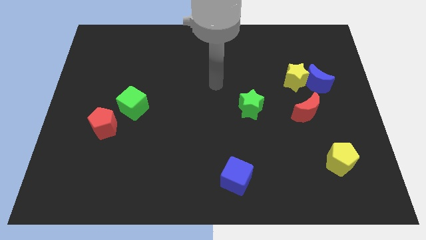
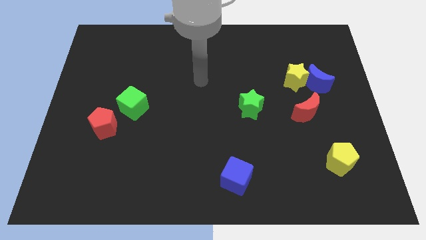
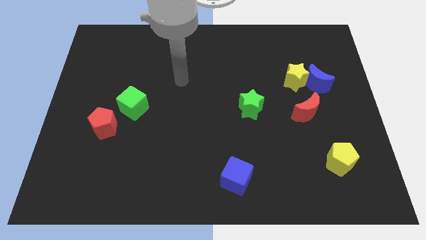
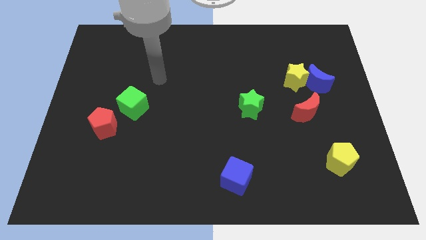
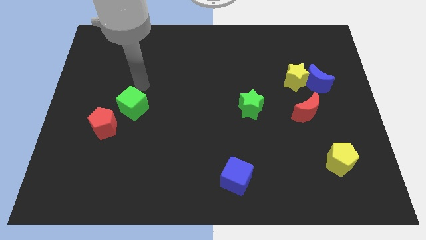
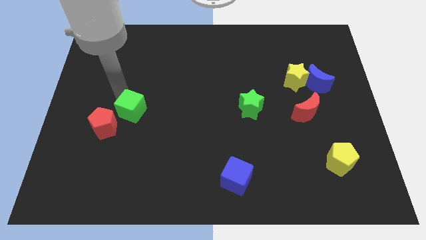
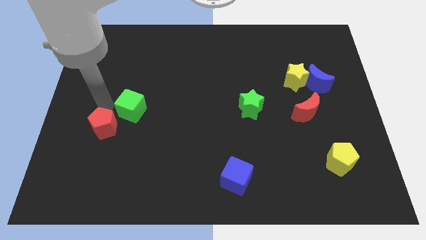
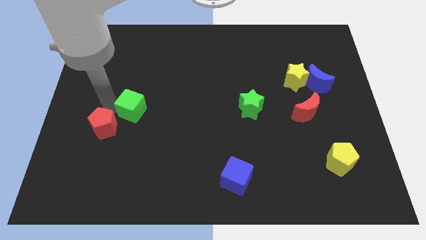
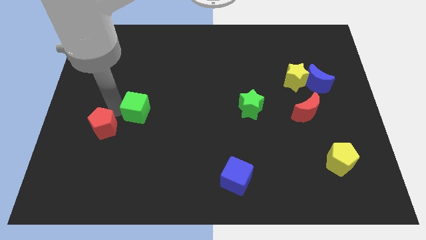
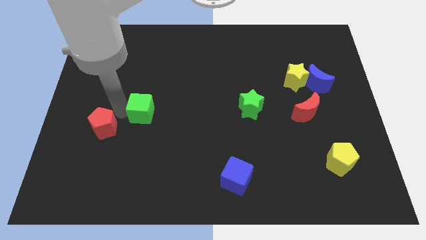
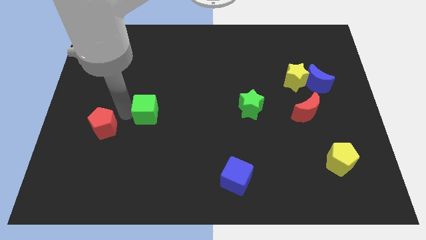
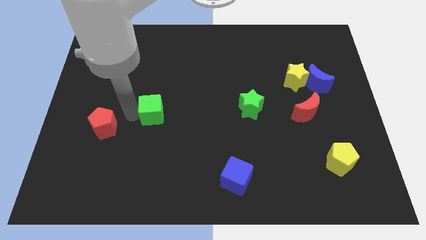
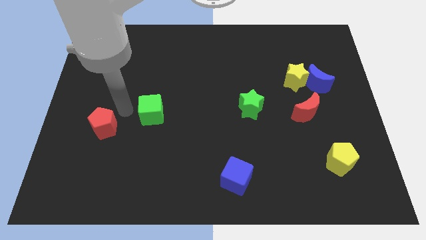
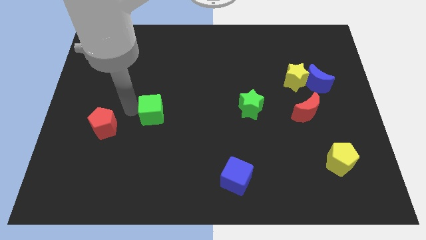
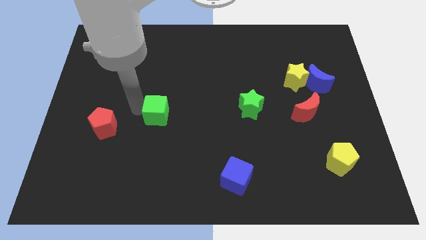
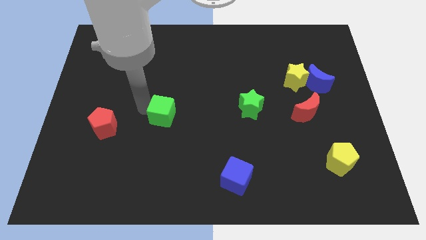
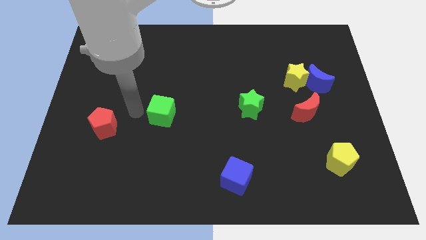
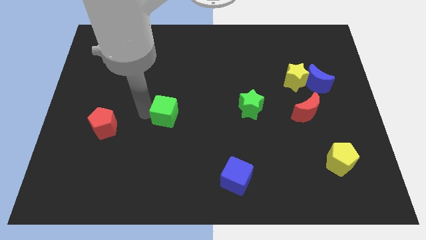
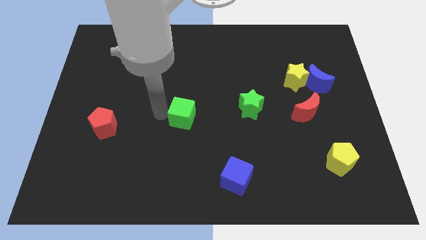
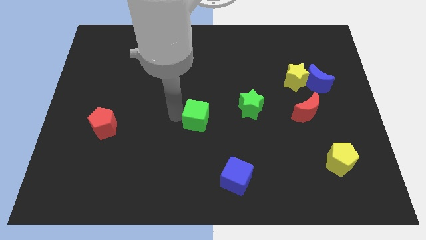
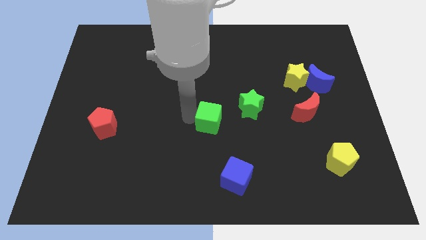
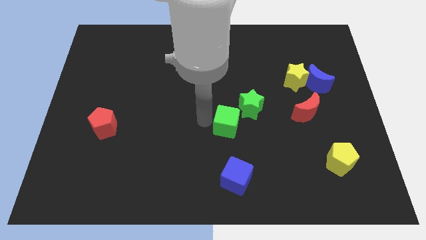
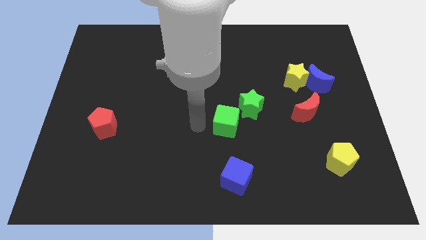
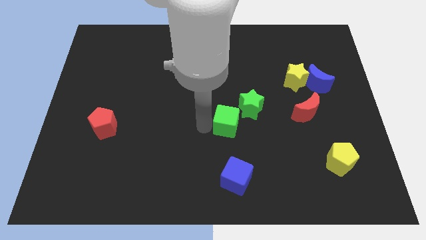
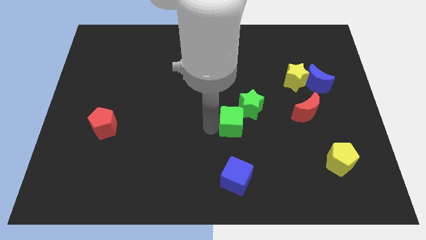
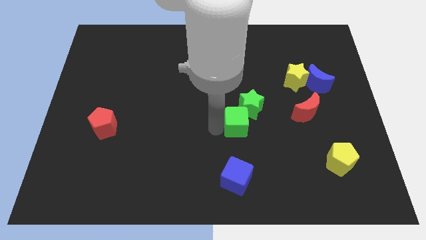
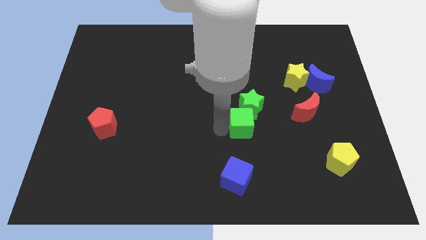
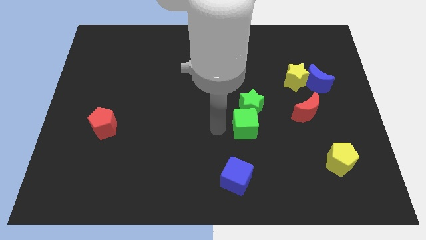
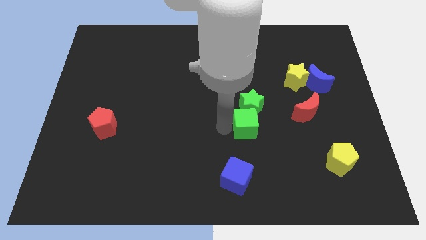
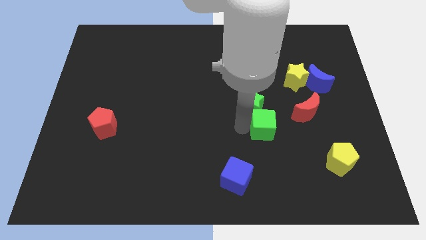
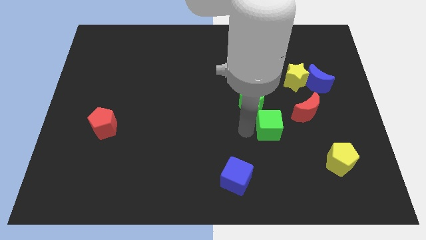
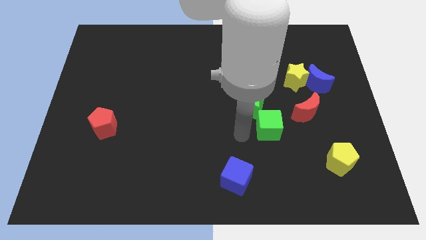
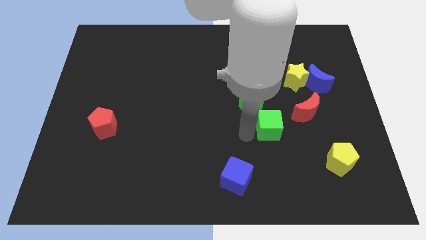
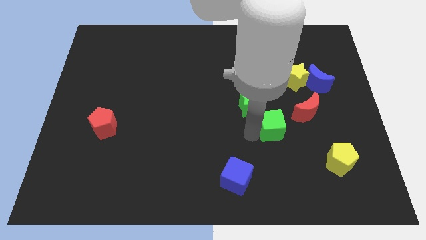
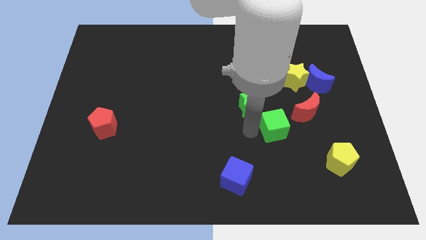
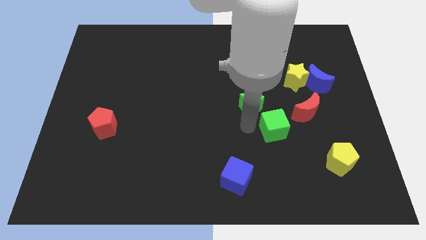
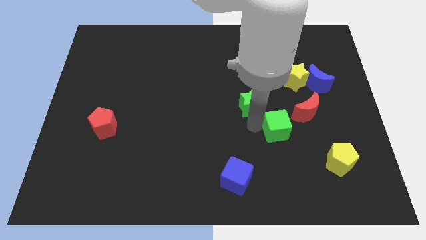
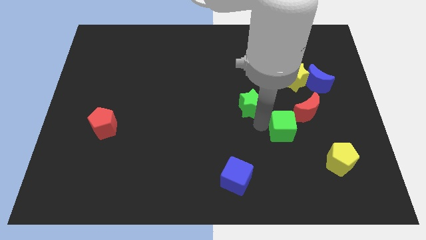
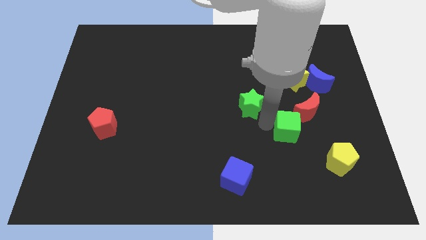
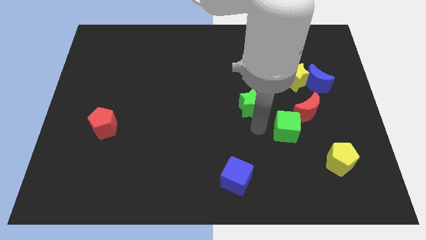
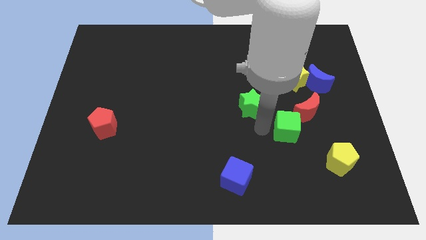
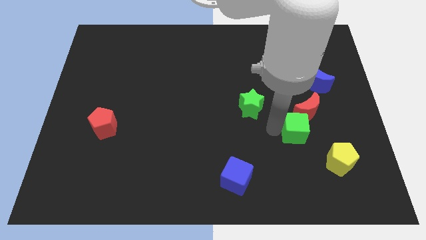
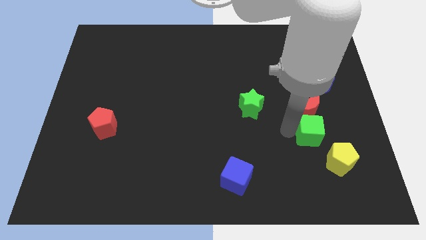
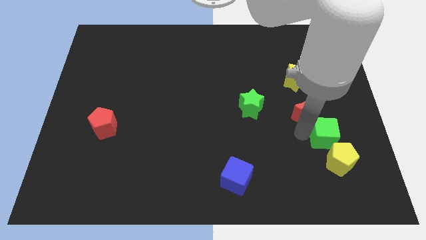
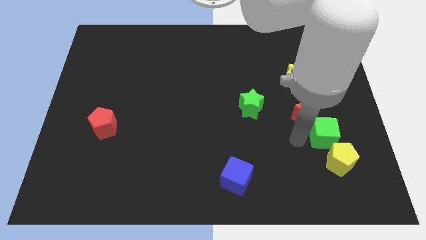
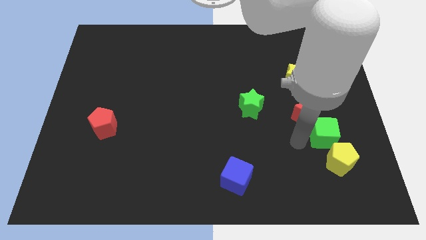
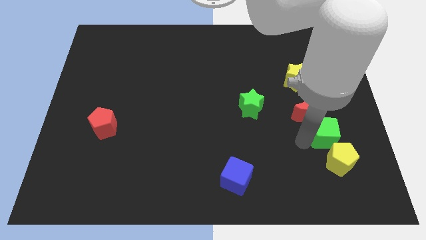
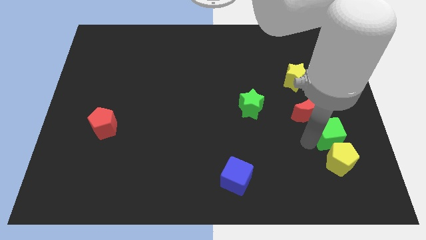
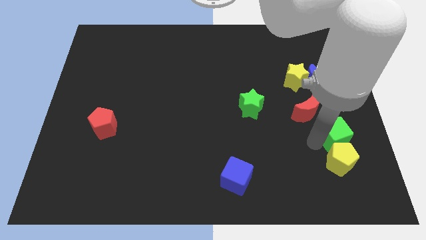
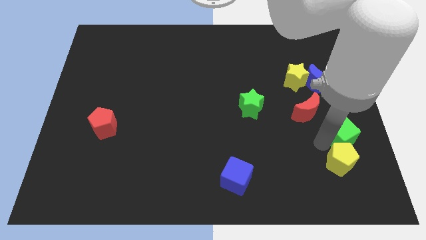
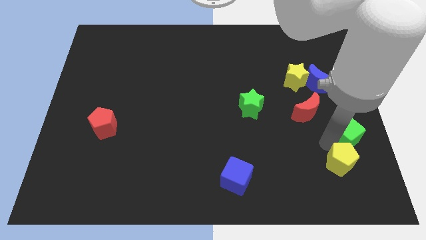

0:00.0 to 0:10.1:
push the green cube to the right side of the board

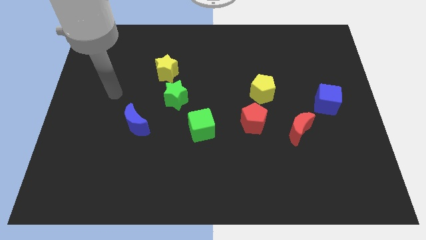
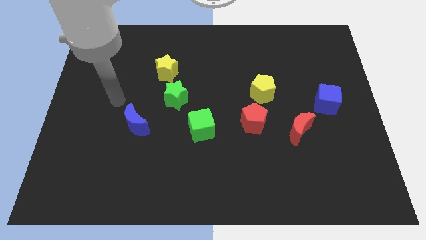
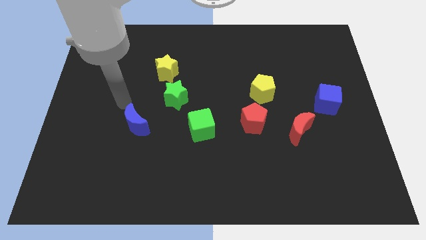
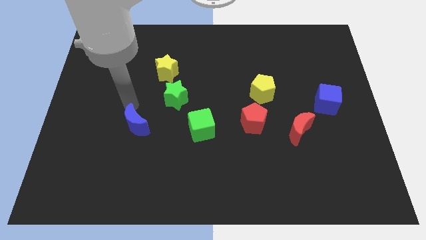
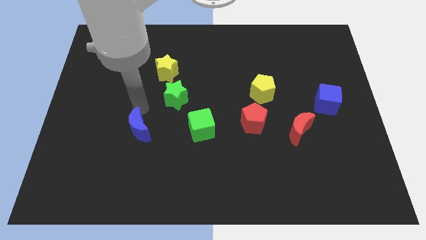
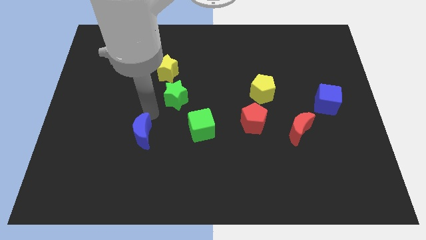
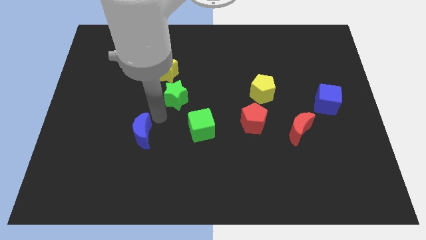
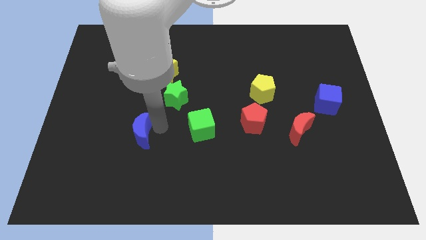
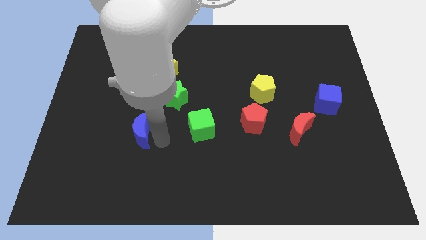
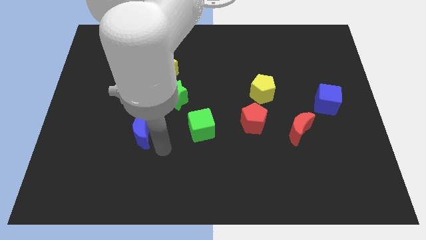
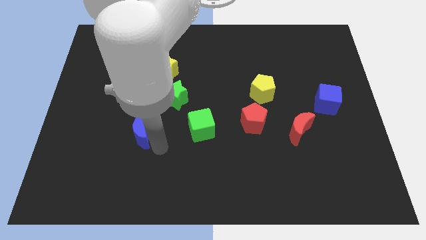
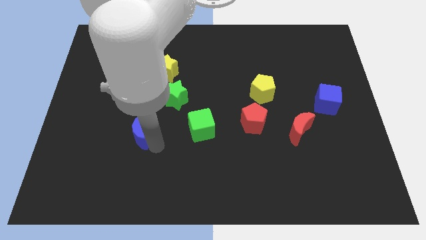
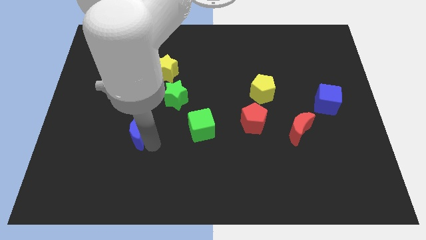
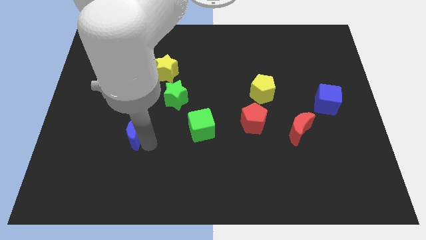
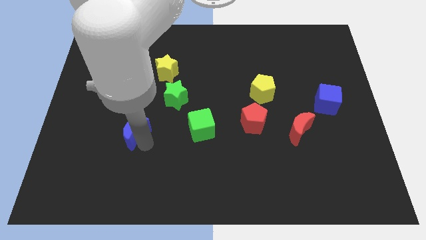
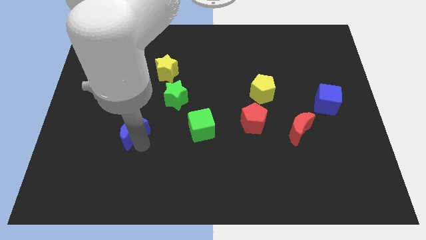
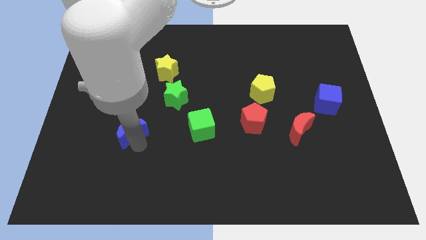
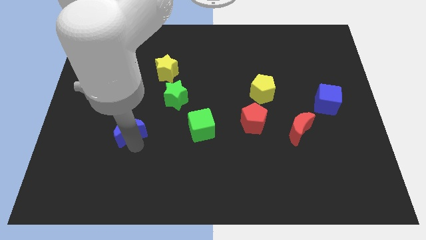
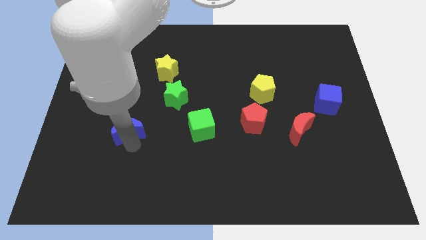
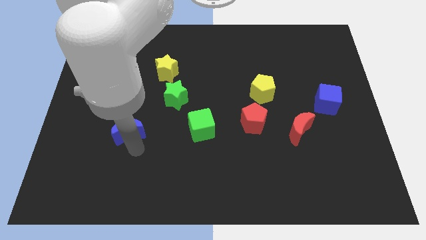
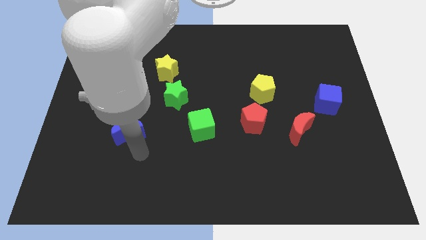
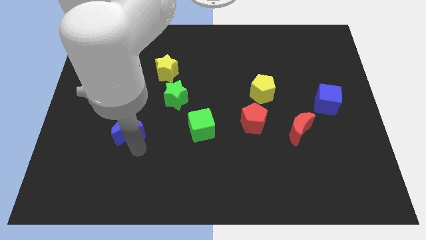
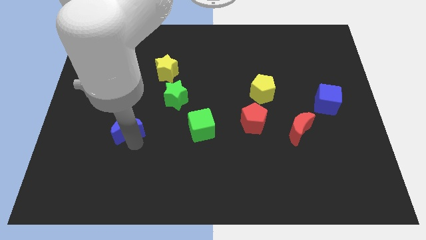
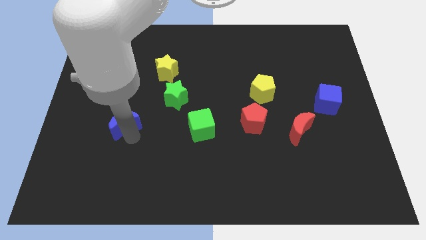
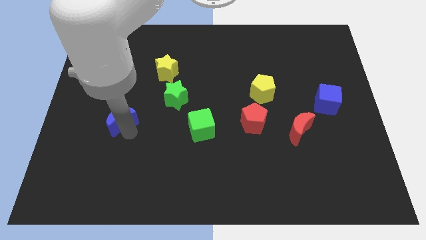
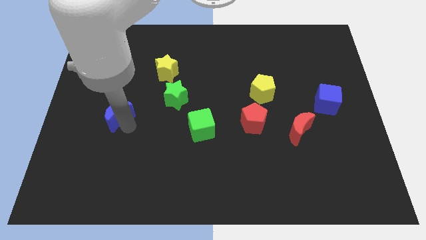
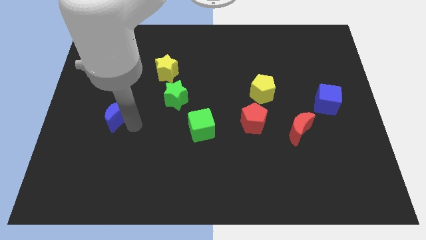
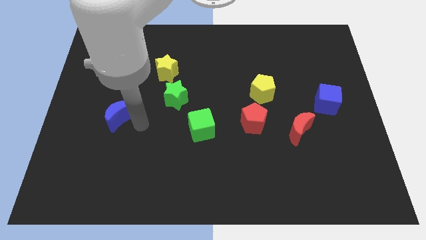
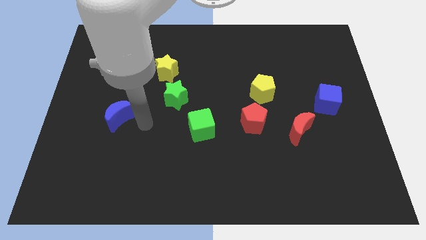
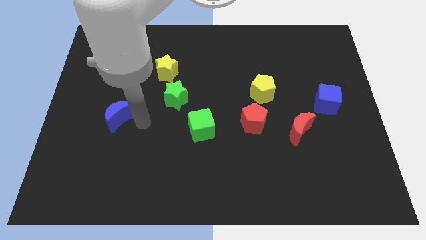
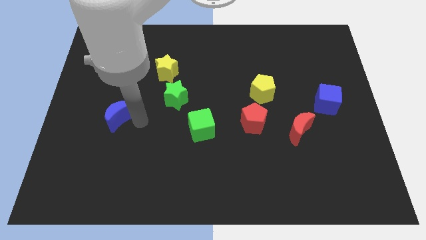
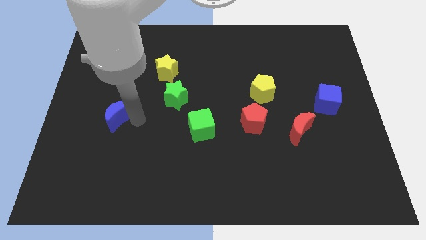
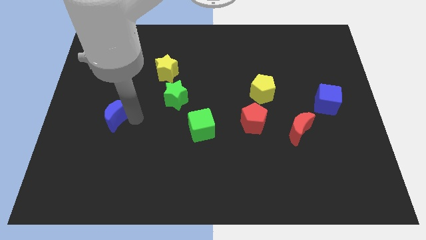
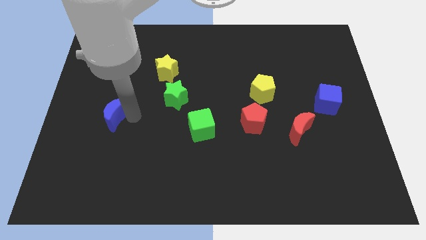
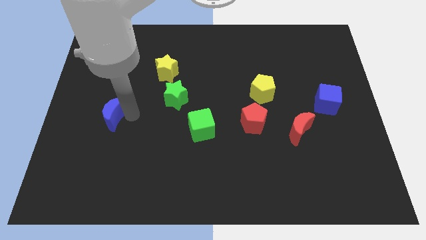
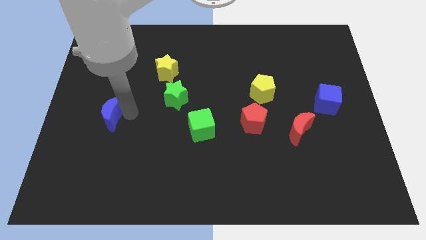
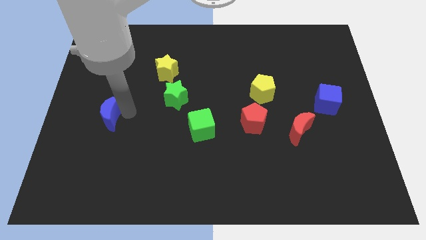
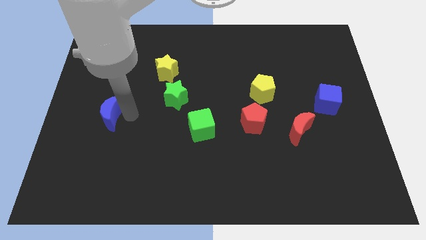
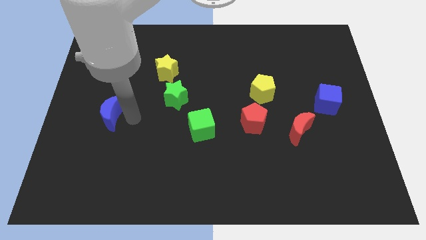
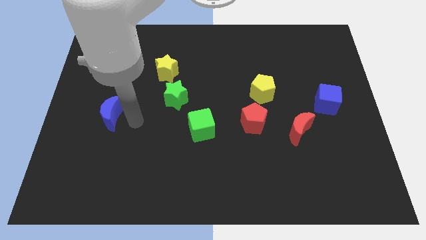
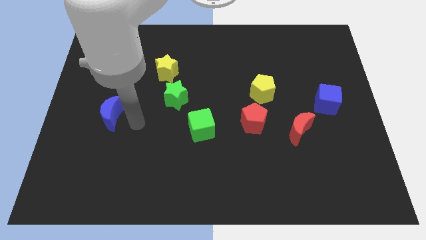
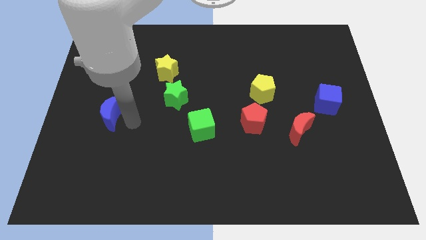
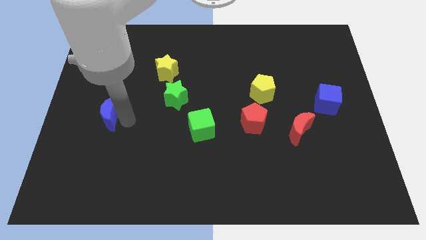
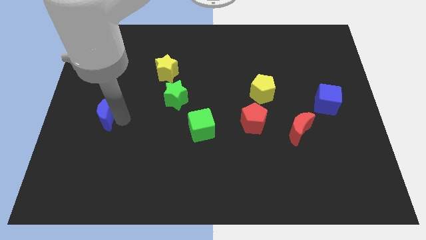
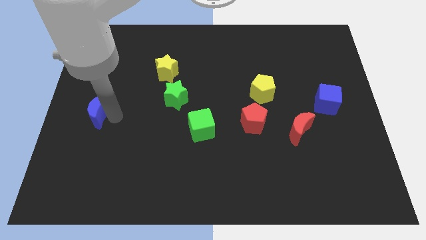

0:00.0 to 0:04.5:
put the blue moon to the left side
